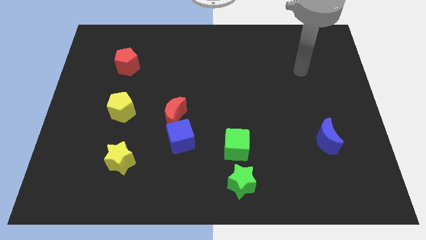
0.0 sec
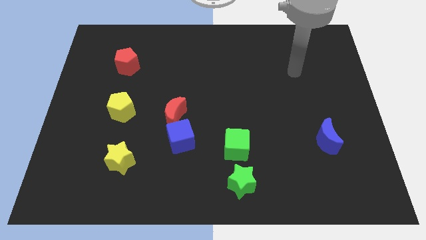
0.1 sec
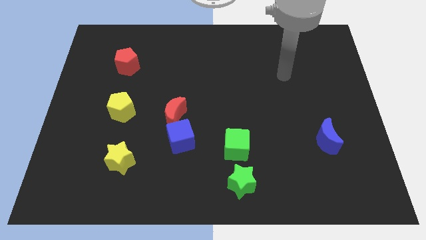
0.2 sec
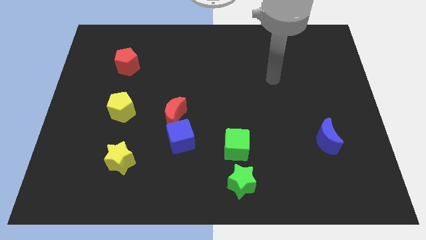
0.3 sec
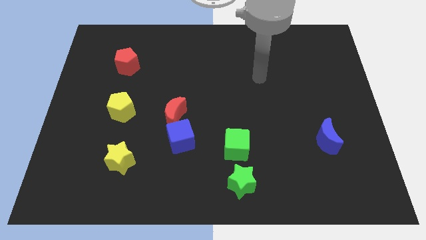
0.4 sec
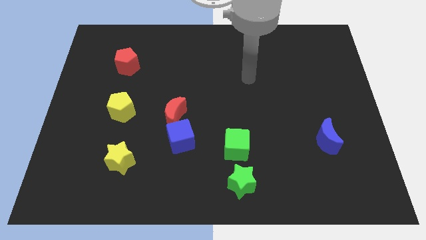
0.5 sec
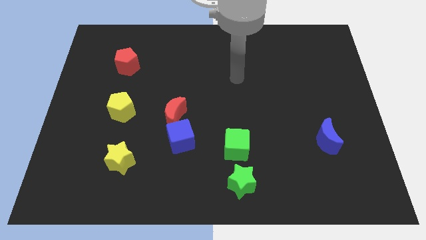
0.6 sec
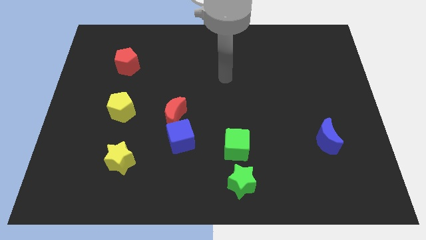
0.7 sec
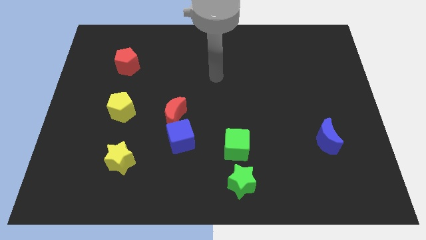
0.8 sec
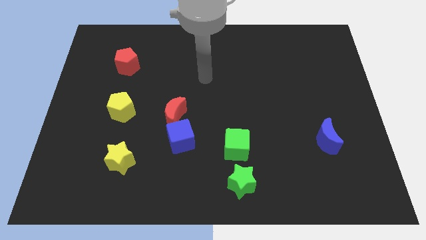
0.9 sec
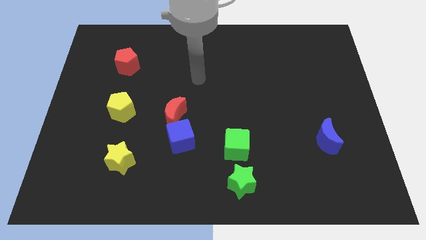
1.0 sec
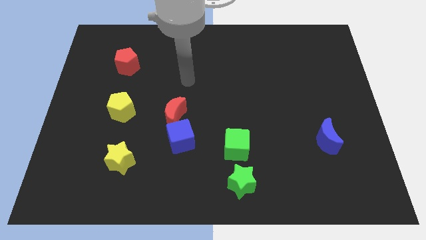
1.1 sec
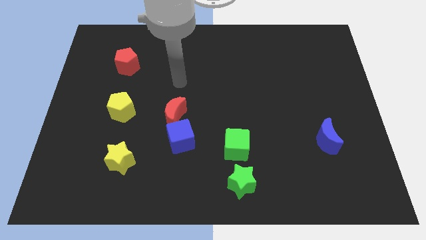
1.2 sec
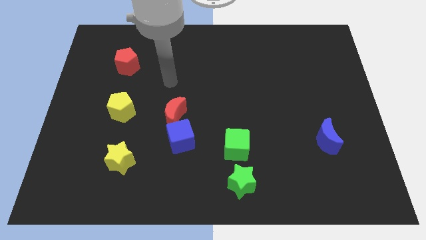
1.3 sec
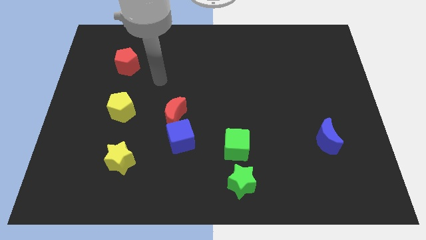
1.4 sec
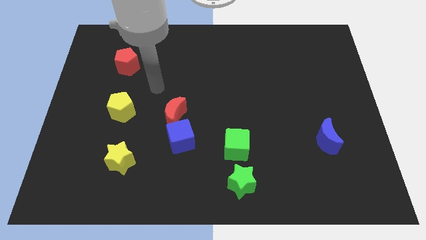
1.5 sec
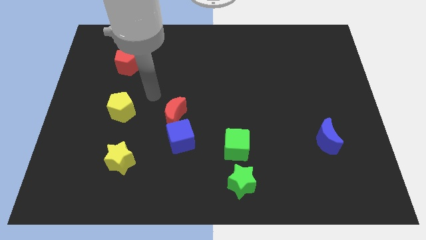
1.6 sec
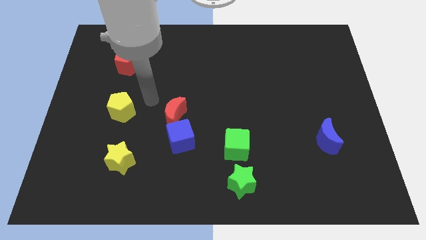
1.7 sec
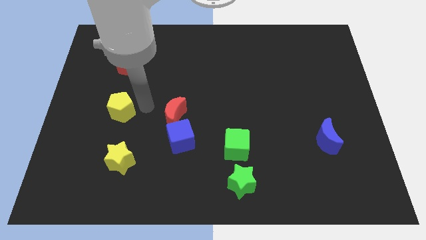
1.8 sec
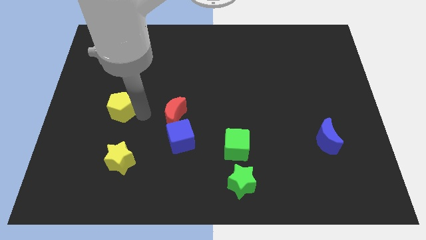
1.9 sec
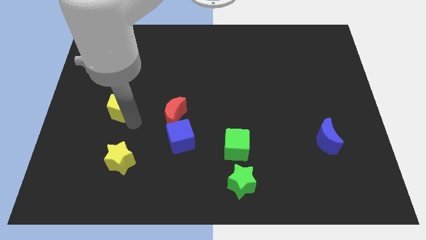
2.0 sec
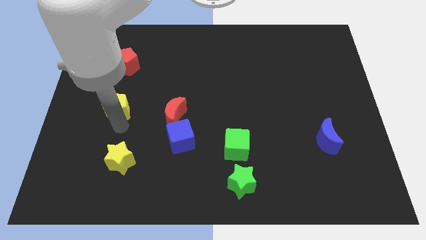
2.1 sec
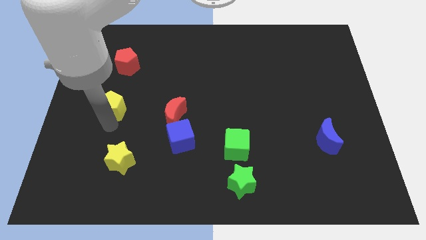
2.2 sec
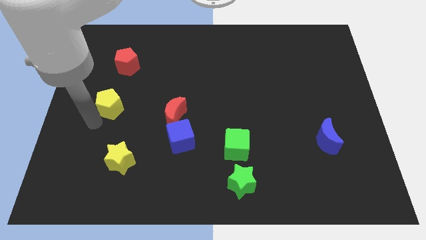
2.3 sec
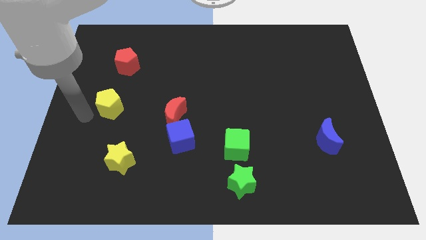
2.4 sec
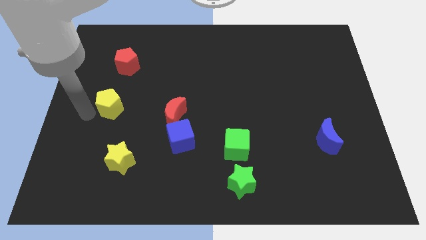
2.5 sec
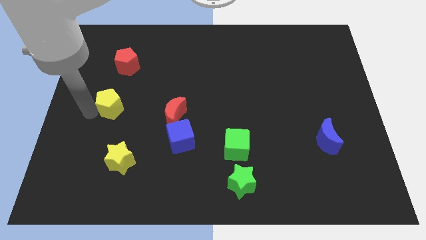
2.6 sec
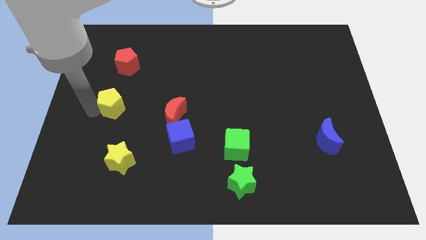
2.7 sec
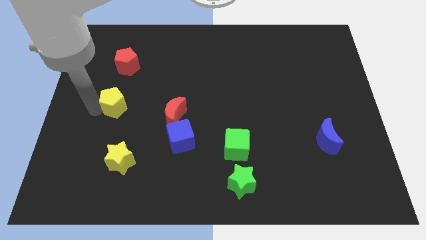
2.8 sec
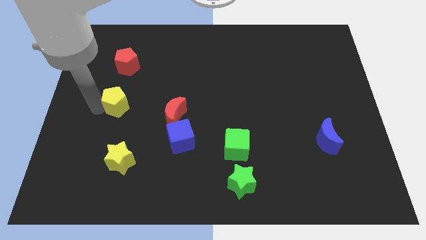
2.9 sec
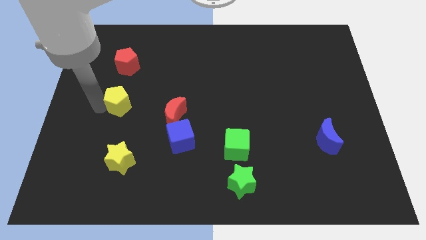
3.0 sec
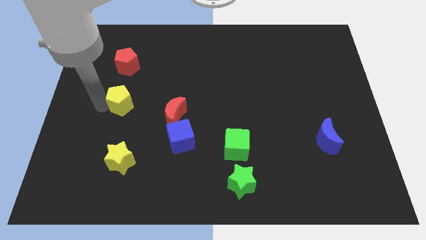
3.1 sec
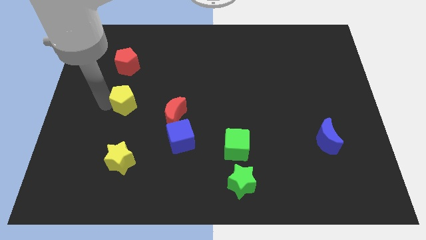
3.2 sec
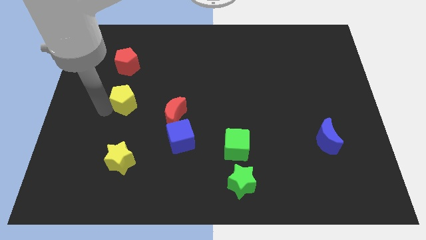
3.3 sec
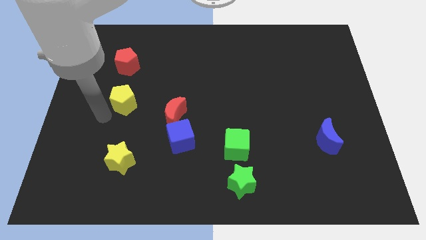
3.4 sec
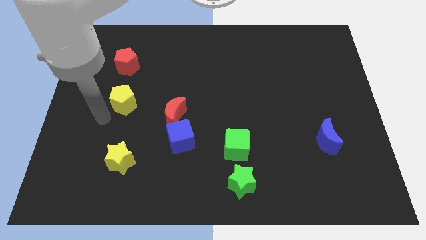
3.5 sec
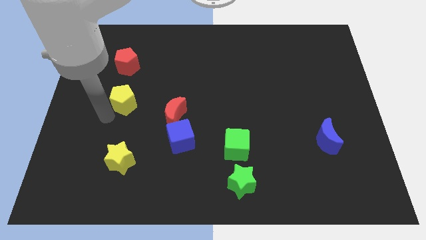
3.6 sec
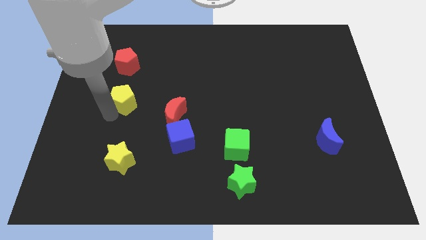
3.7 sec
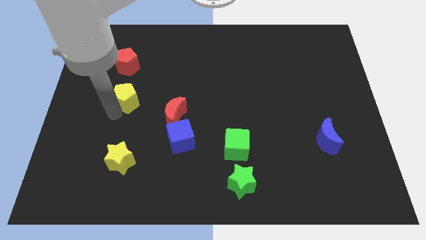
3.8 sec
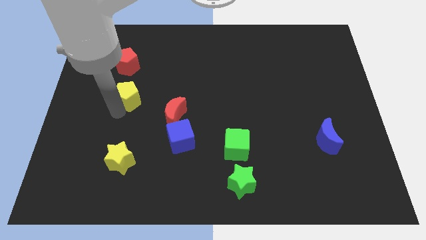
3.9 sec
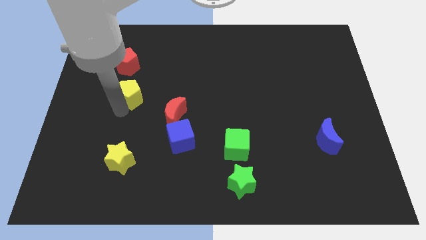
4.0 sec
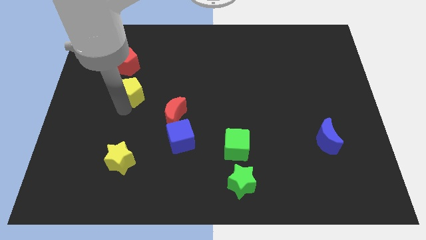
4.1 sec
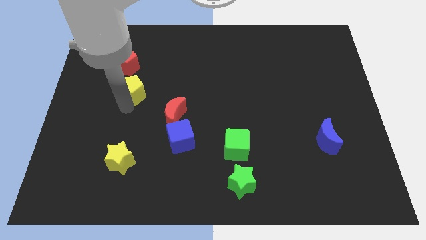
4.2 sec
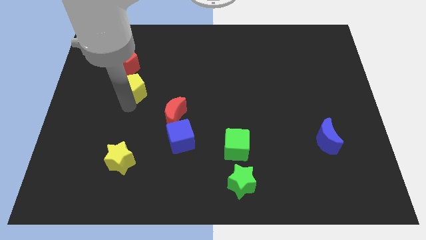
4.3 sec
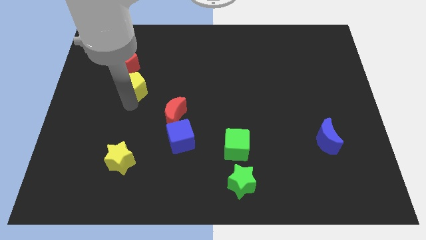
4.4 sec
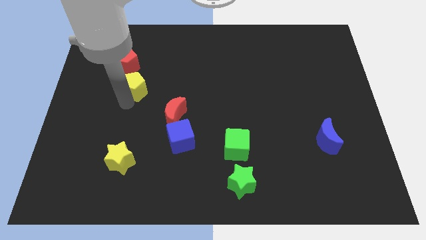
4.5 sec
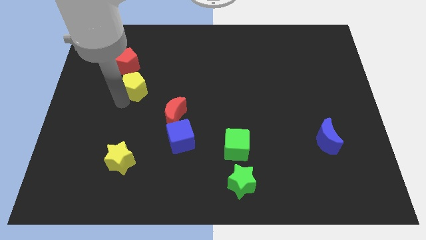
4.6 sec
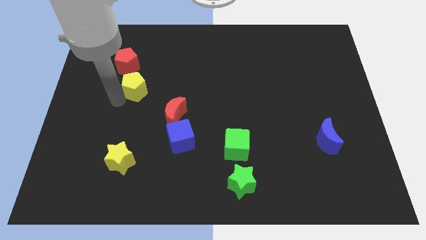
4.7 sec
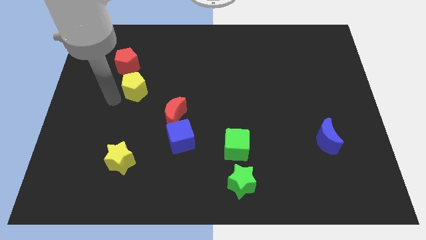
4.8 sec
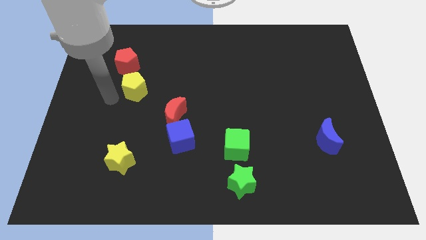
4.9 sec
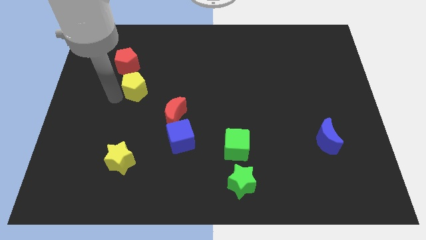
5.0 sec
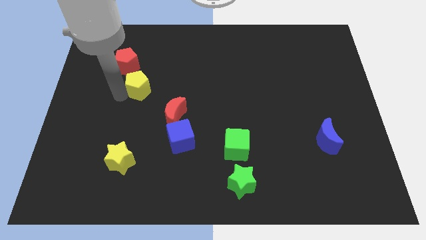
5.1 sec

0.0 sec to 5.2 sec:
move the yellow pentagon diagonally up and right a little

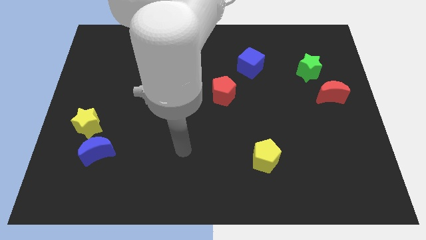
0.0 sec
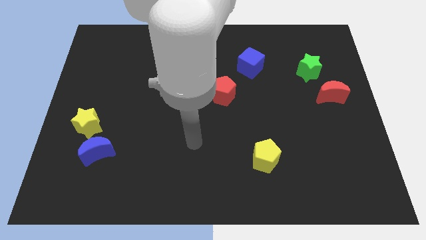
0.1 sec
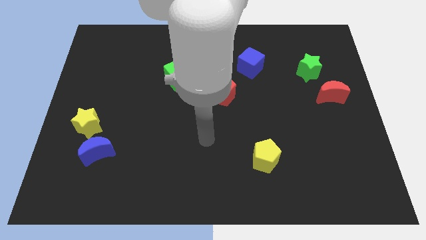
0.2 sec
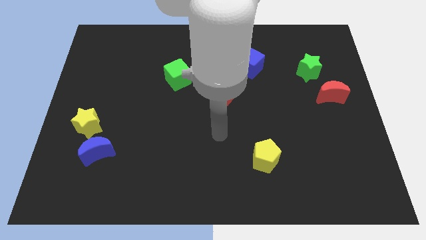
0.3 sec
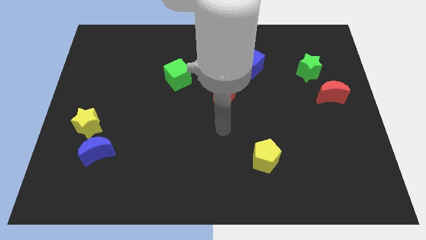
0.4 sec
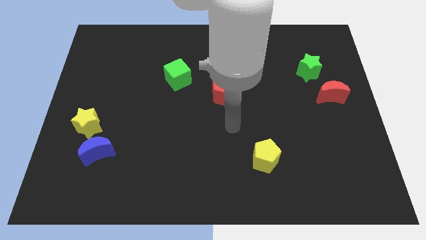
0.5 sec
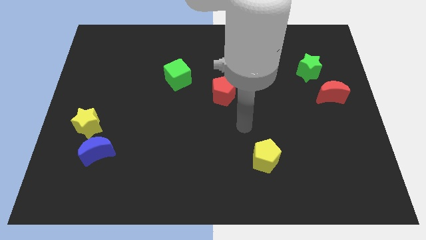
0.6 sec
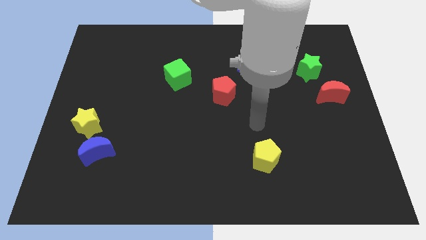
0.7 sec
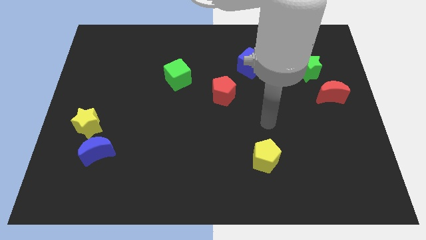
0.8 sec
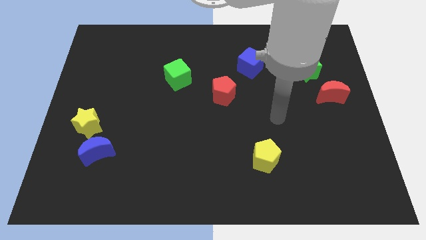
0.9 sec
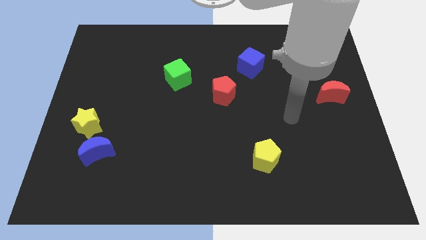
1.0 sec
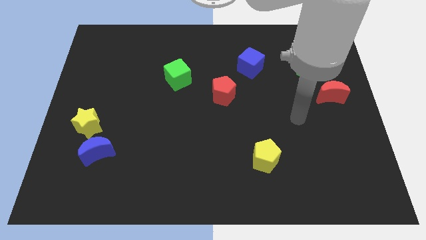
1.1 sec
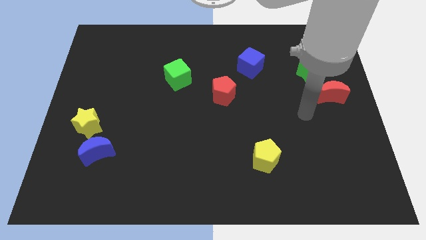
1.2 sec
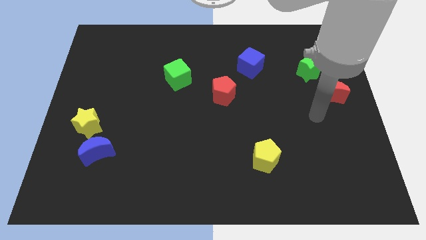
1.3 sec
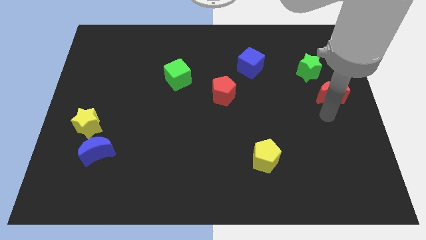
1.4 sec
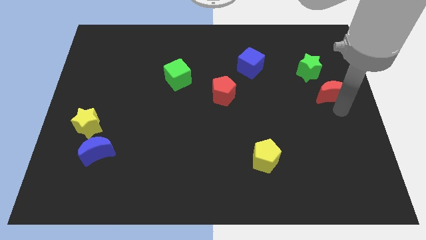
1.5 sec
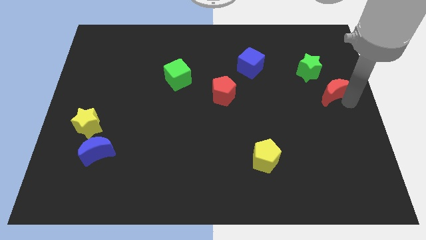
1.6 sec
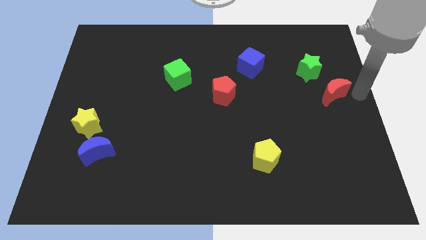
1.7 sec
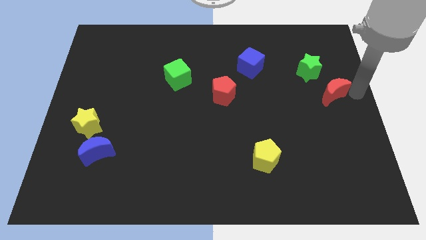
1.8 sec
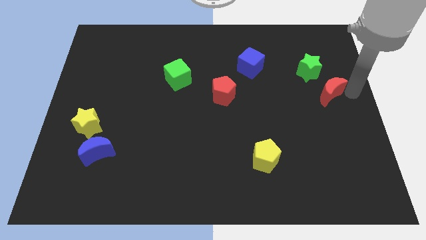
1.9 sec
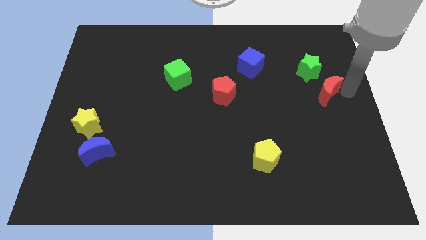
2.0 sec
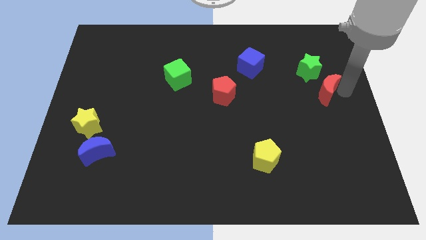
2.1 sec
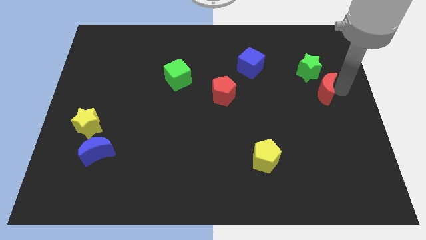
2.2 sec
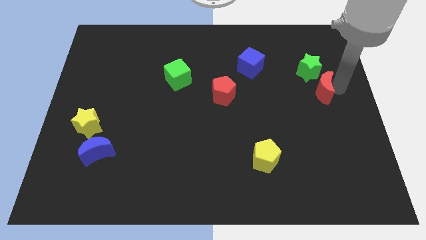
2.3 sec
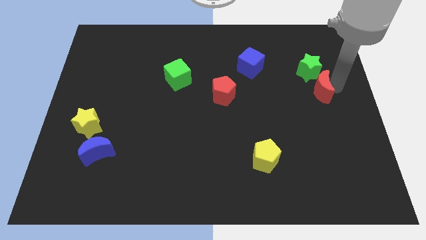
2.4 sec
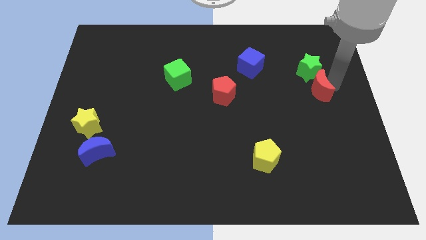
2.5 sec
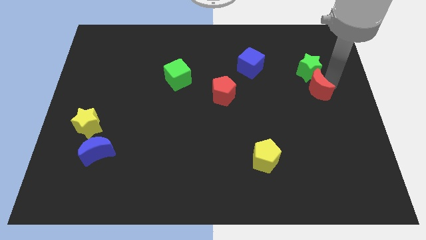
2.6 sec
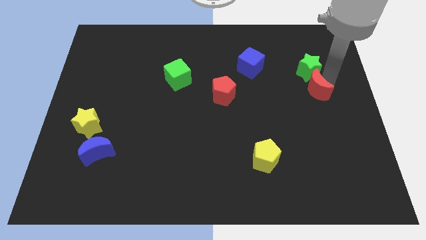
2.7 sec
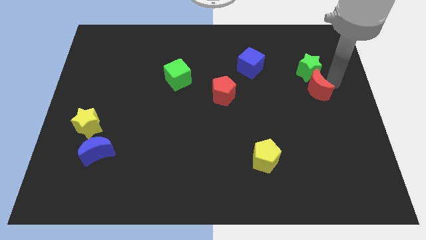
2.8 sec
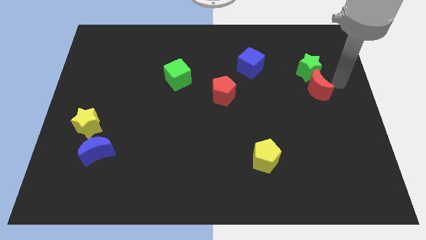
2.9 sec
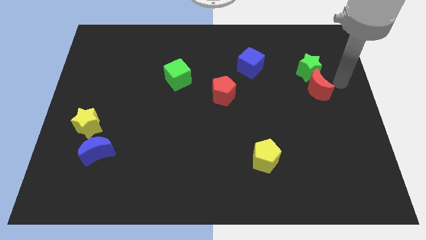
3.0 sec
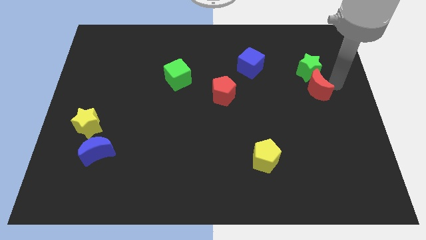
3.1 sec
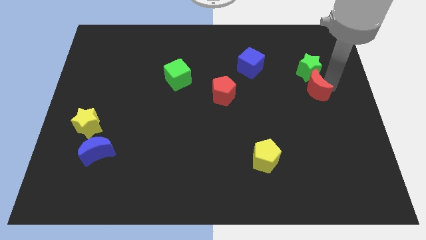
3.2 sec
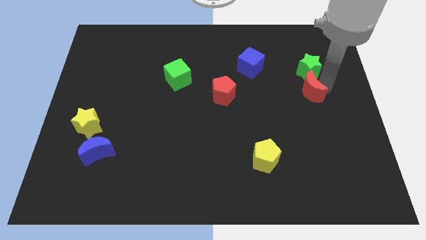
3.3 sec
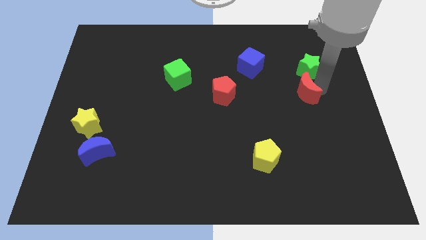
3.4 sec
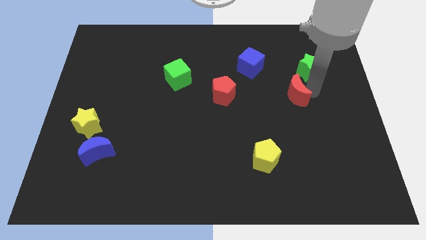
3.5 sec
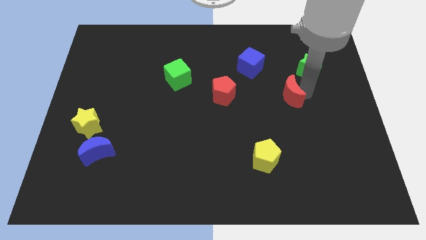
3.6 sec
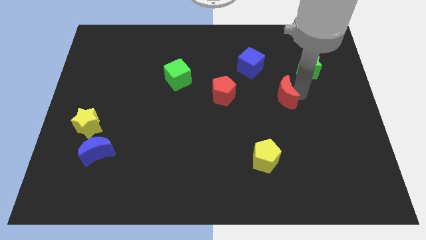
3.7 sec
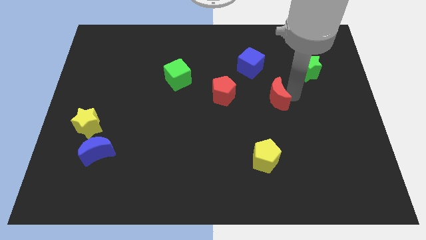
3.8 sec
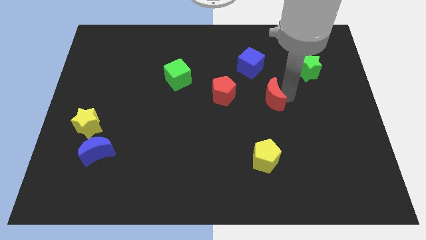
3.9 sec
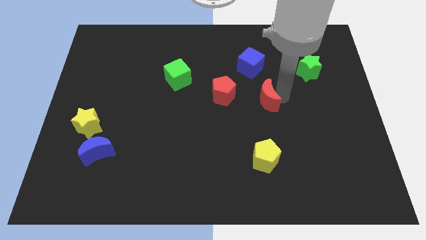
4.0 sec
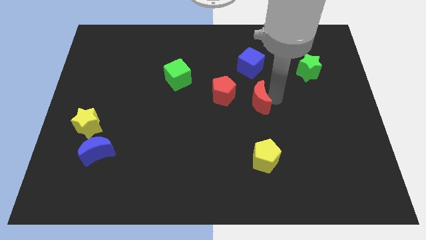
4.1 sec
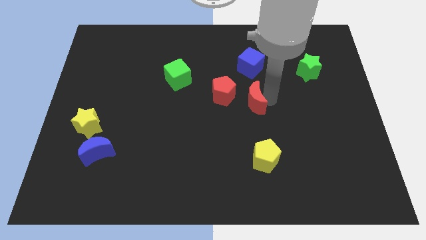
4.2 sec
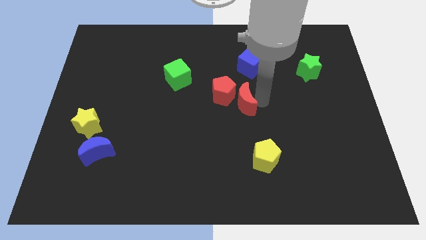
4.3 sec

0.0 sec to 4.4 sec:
slide the red moon to the left
